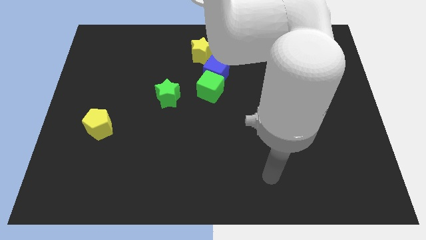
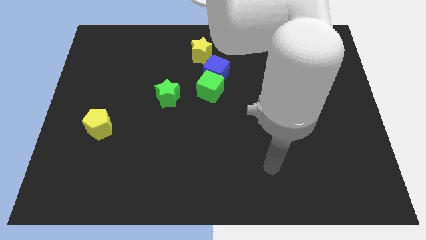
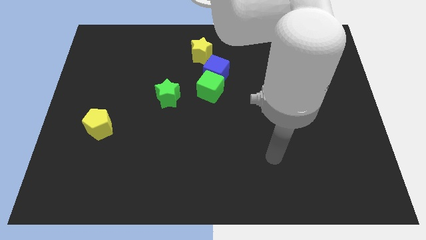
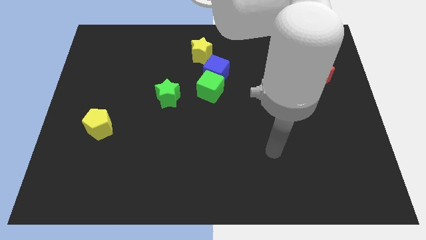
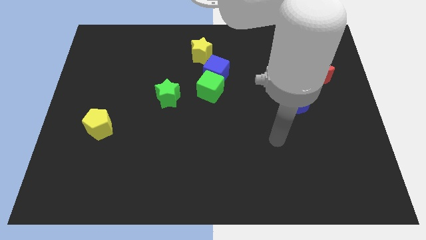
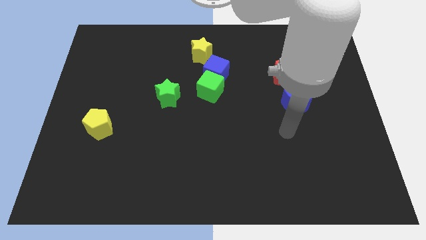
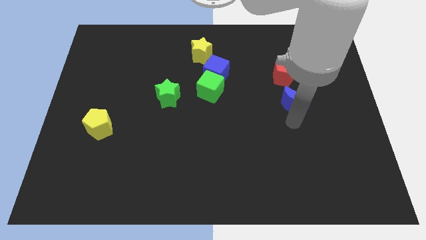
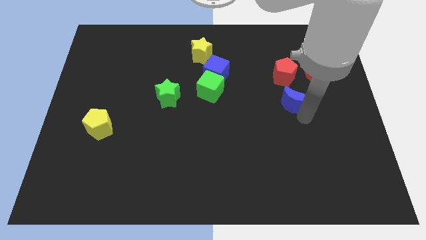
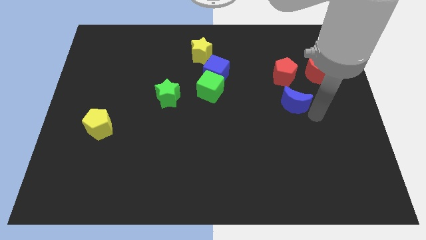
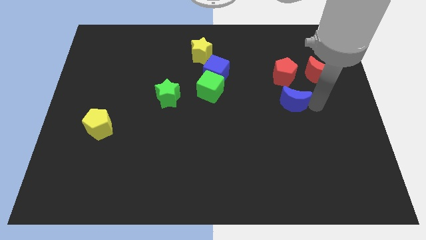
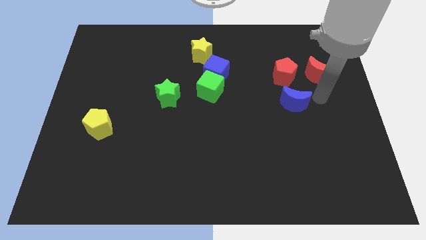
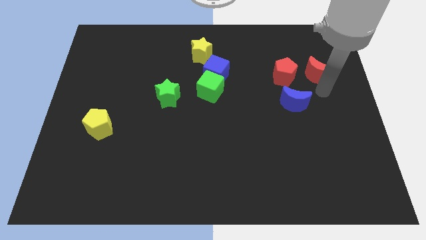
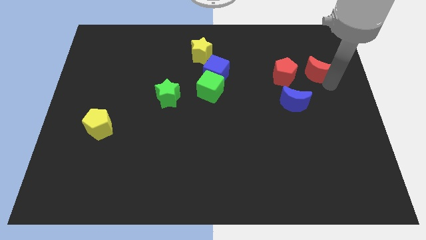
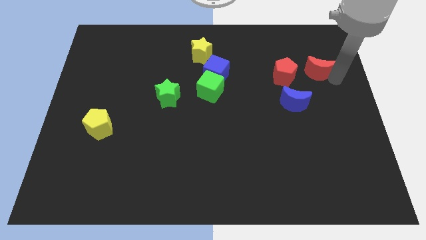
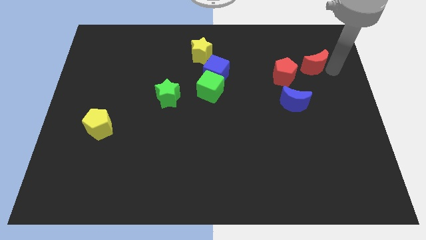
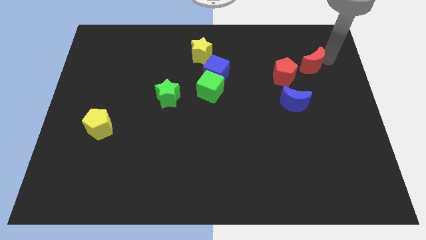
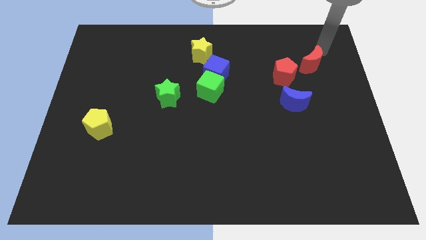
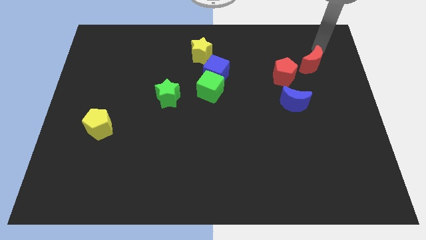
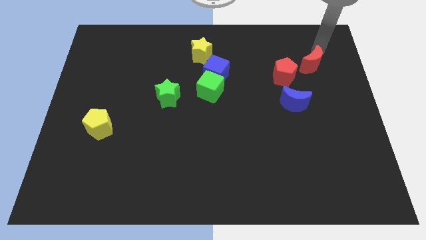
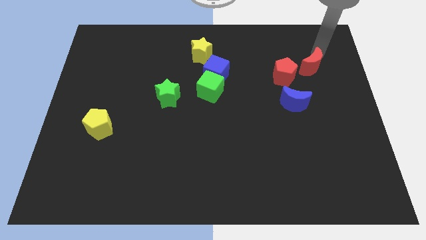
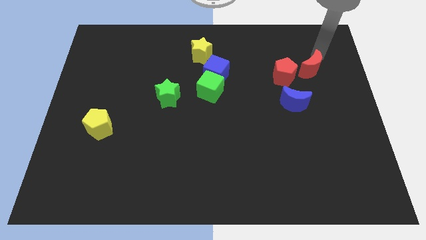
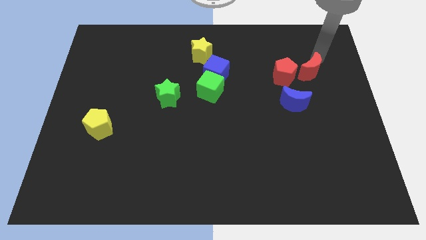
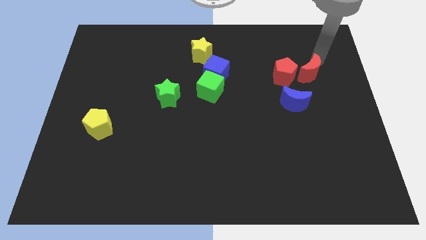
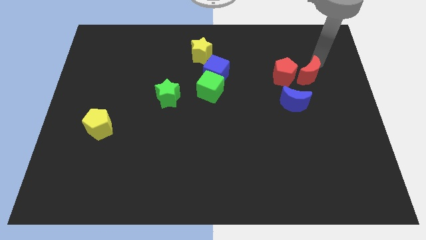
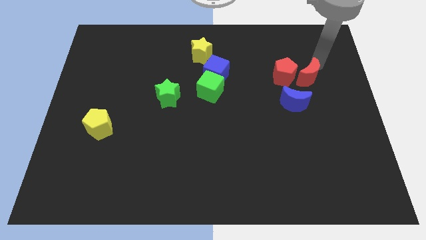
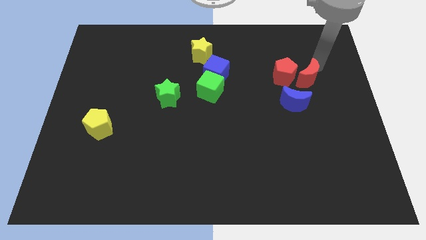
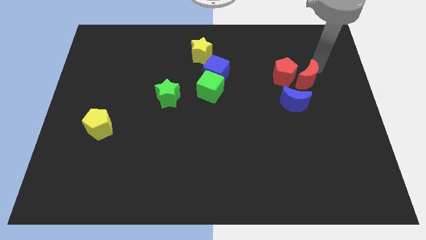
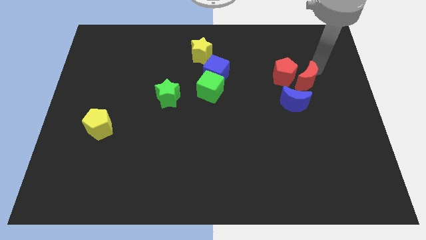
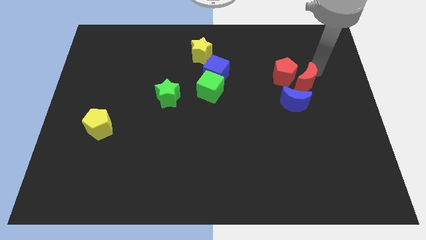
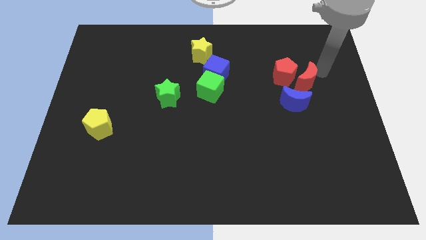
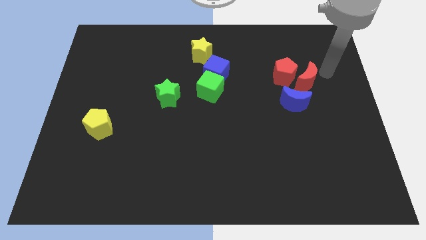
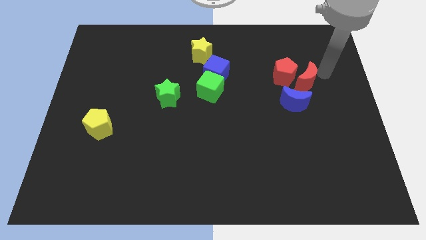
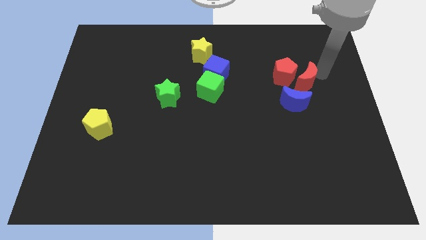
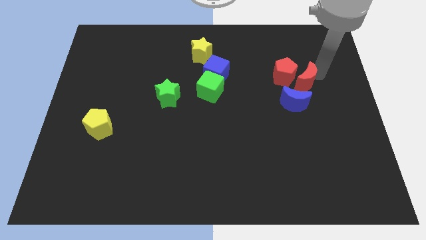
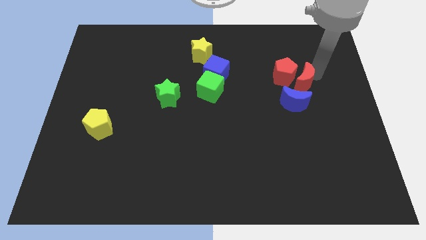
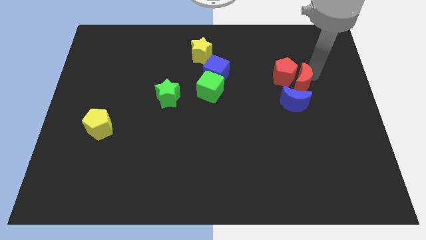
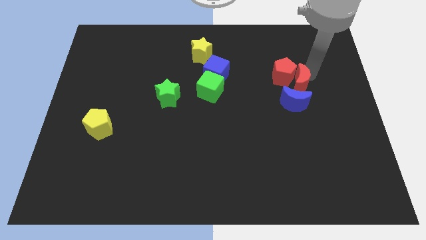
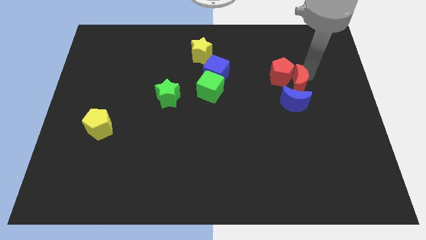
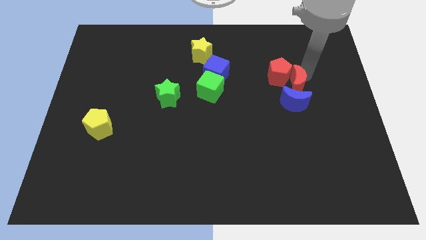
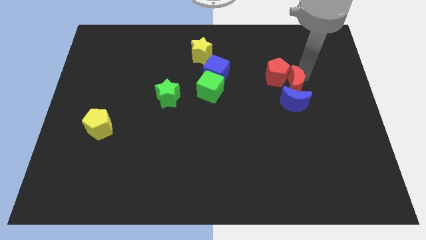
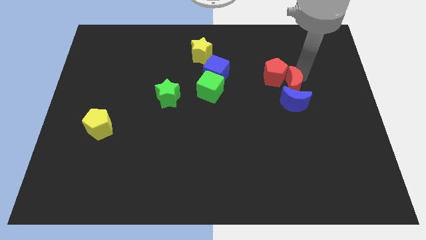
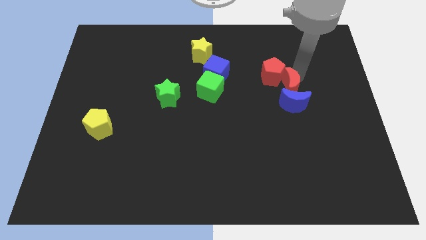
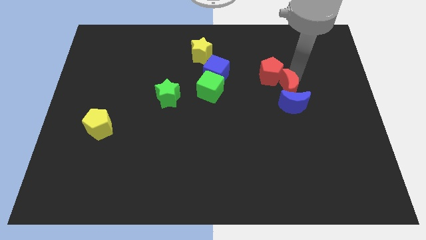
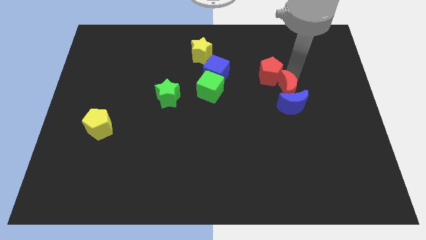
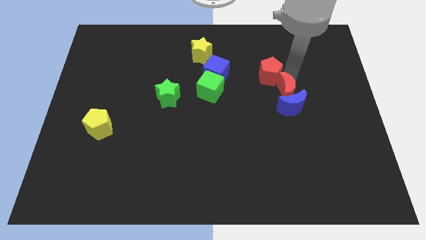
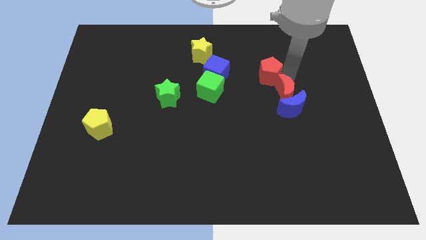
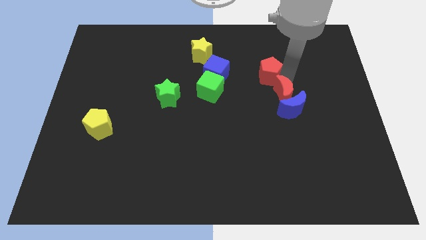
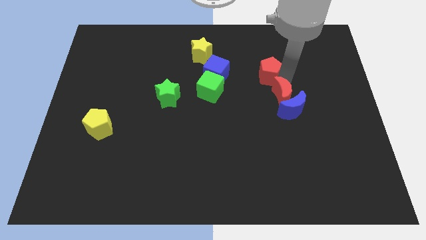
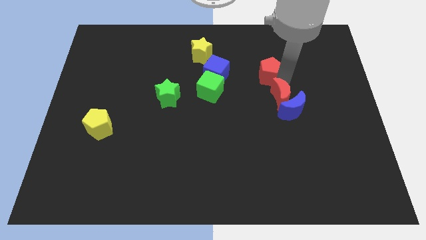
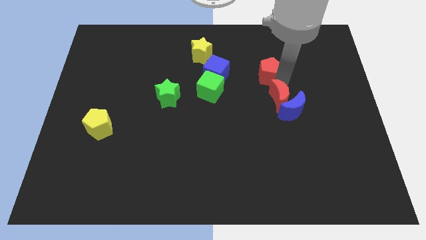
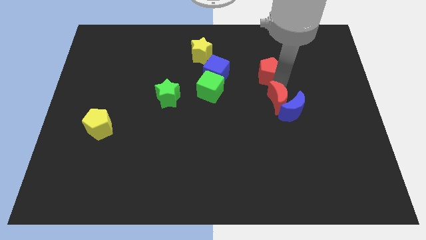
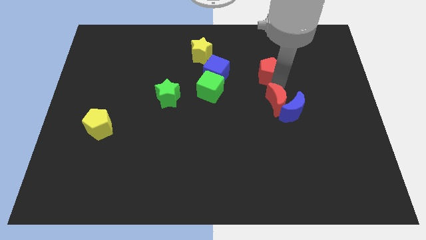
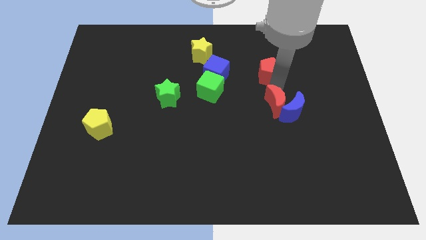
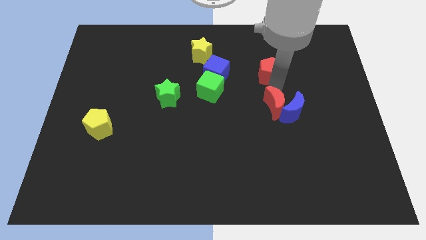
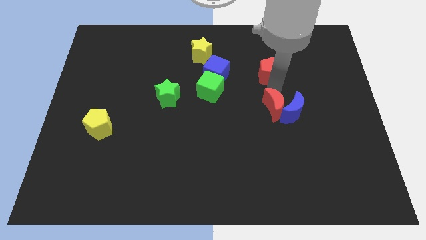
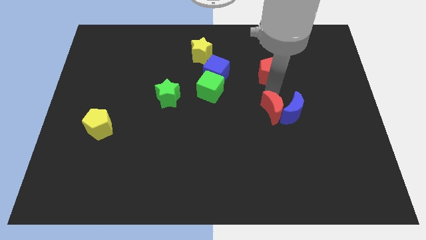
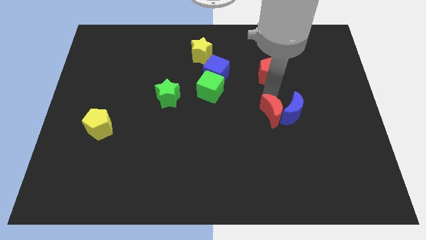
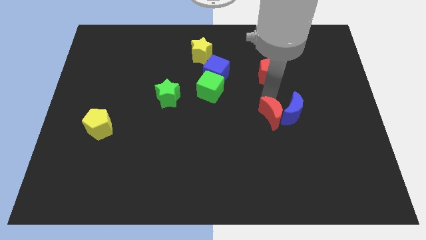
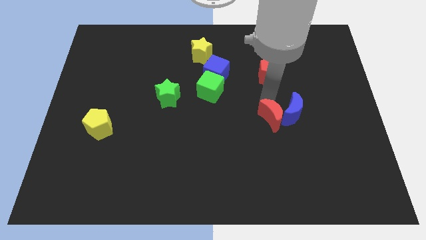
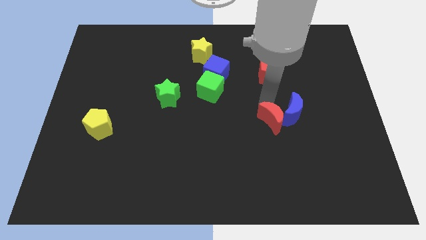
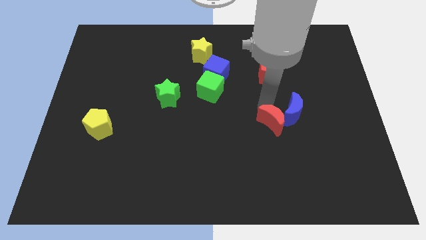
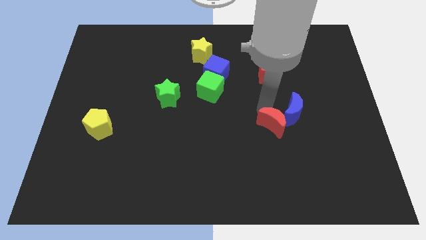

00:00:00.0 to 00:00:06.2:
slide the red moon down and left

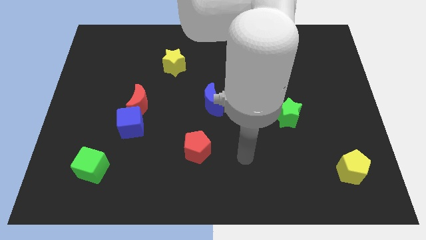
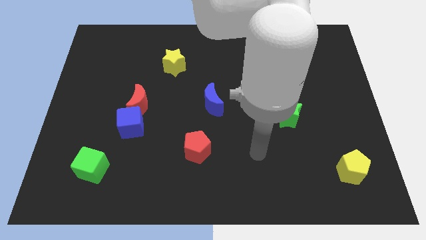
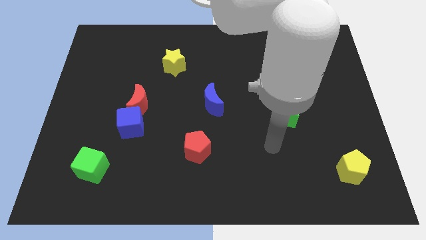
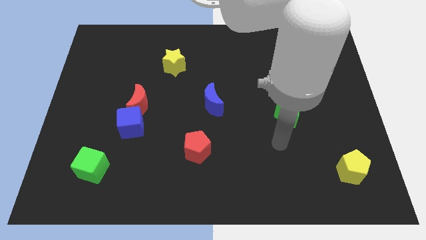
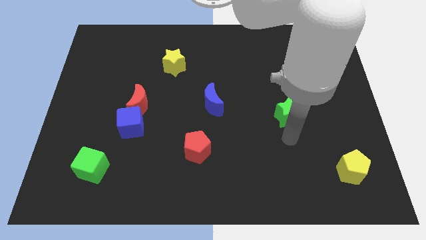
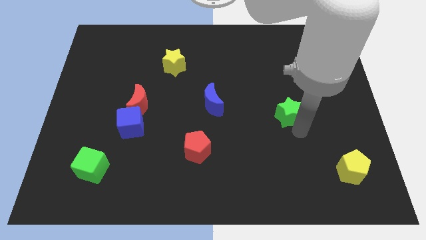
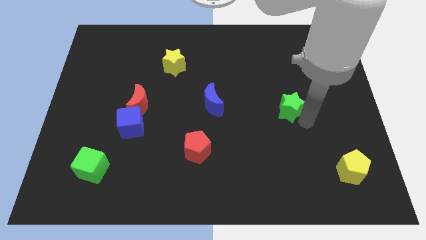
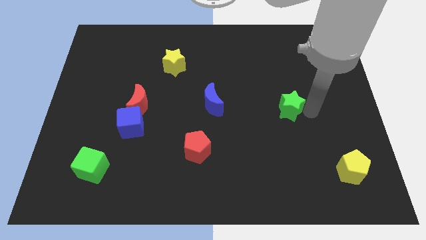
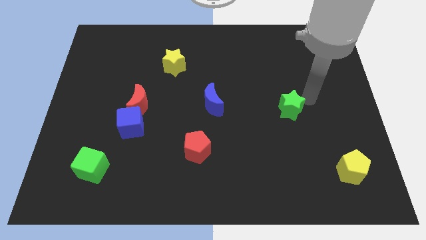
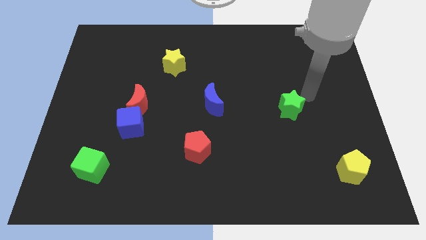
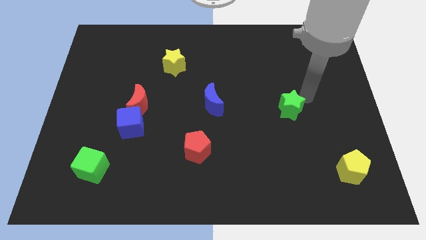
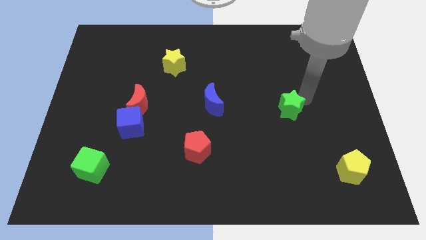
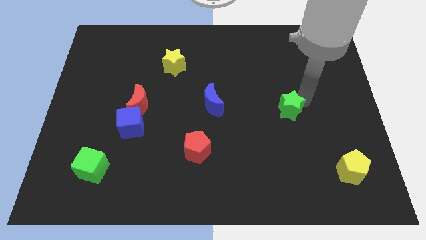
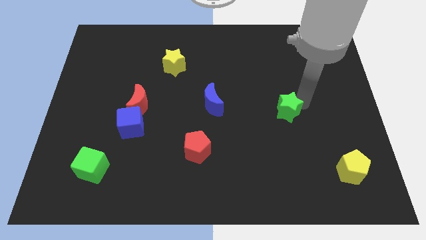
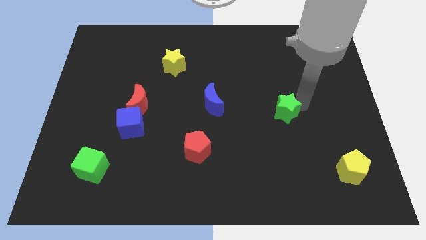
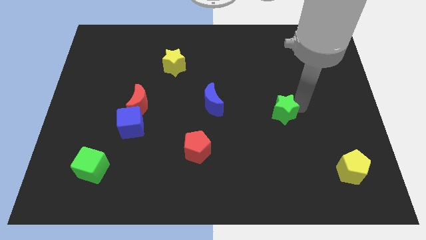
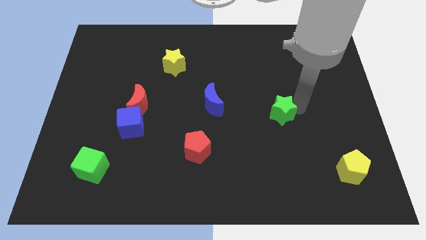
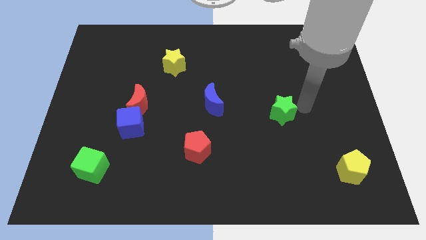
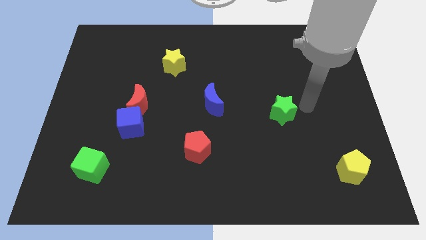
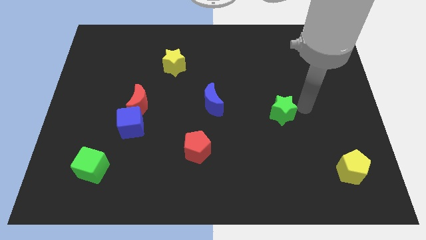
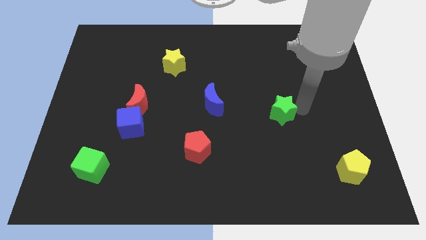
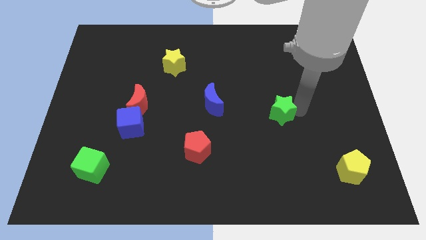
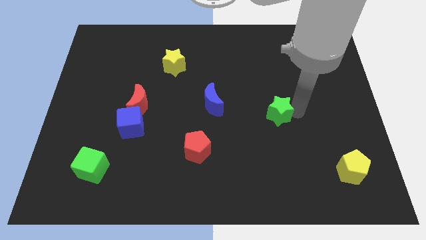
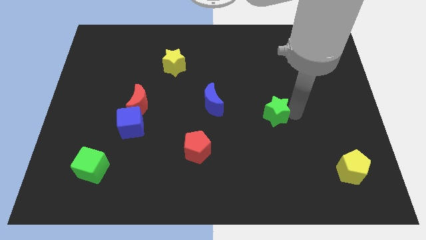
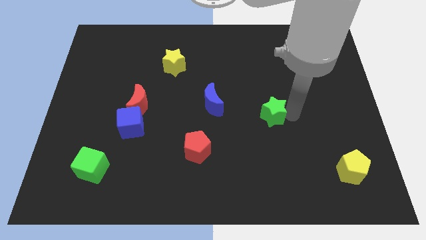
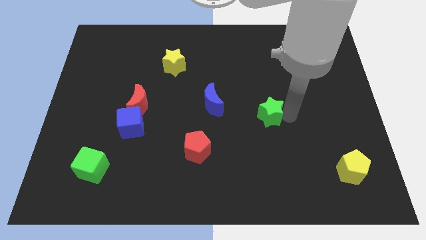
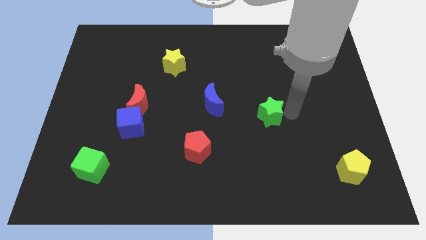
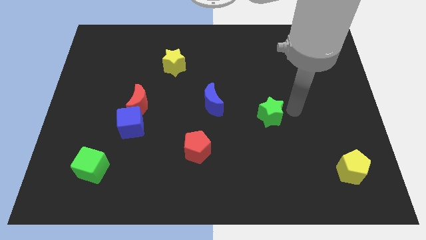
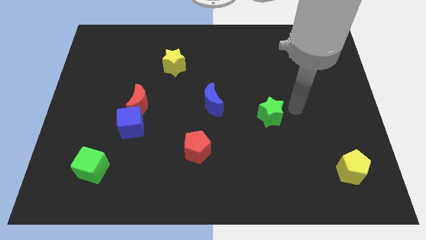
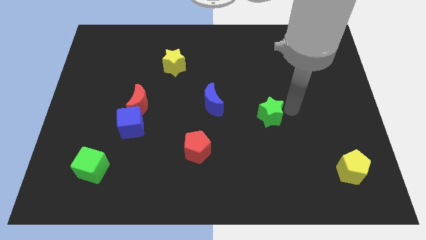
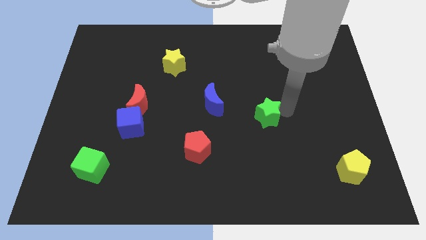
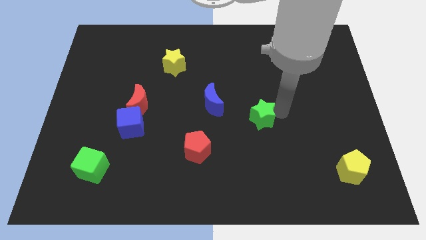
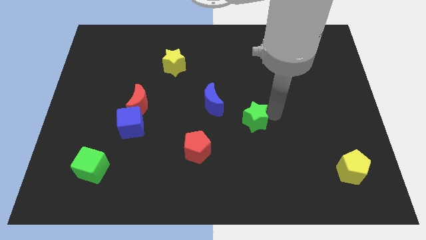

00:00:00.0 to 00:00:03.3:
move the green star somewhat left
